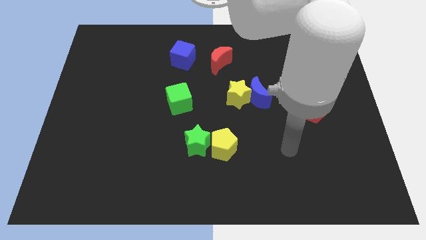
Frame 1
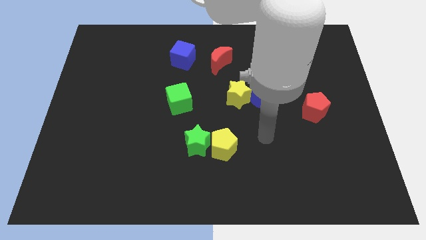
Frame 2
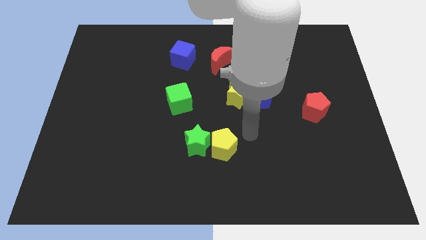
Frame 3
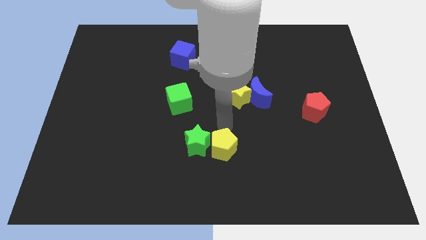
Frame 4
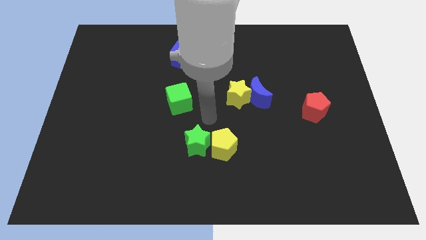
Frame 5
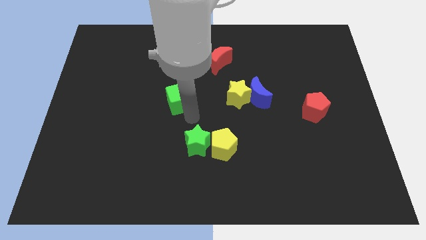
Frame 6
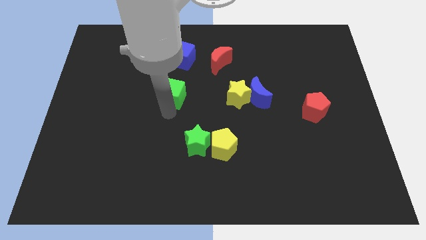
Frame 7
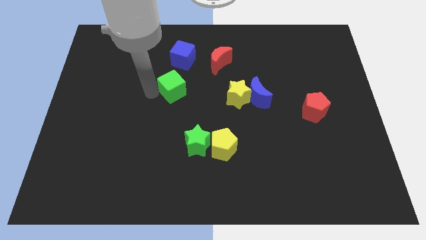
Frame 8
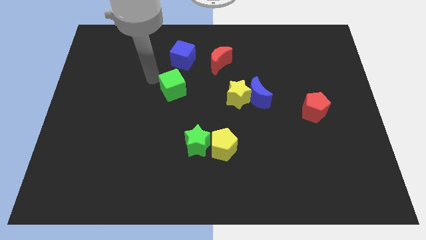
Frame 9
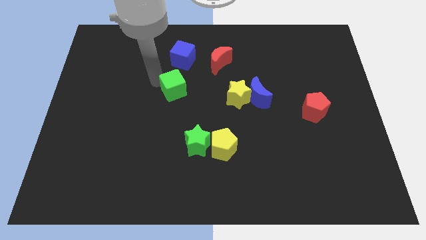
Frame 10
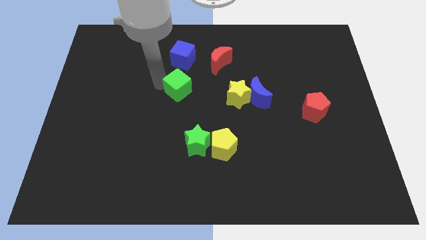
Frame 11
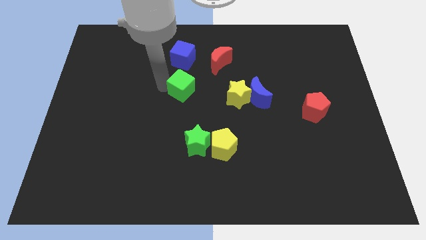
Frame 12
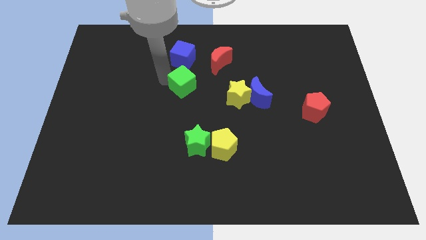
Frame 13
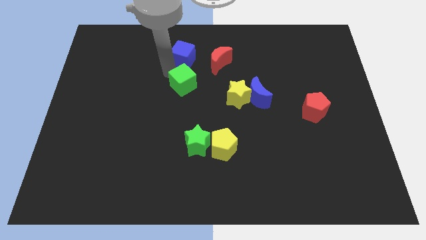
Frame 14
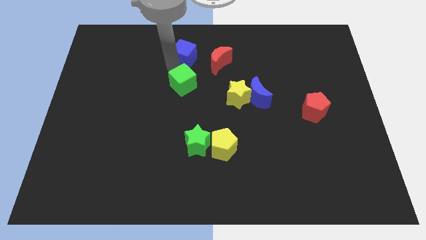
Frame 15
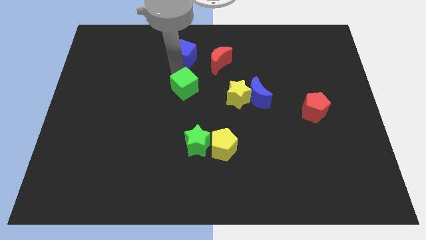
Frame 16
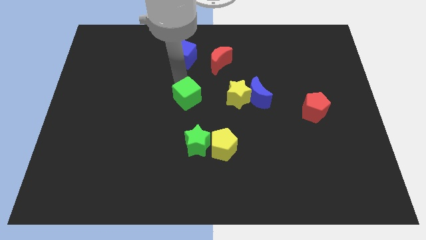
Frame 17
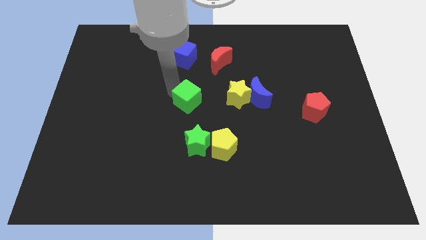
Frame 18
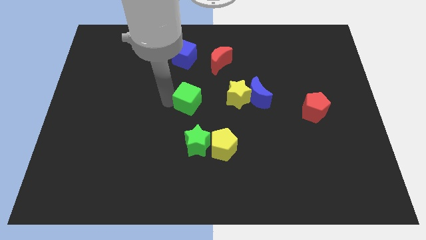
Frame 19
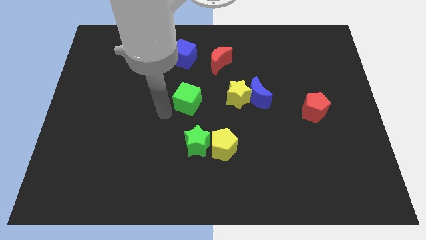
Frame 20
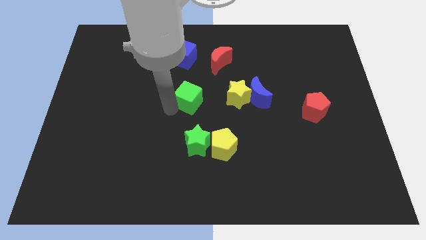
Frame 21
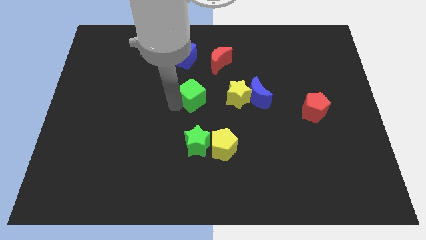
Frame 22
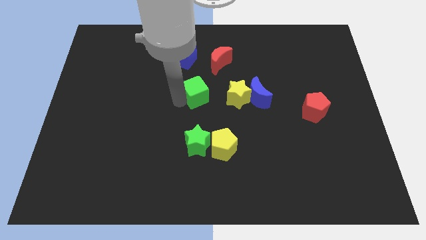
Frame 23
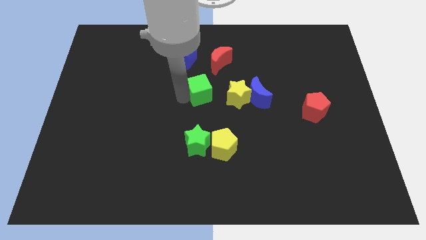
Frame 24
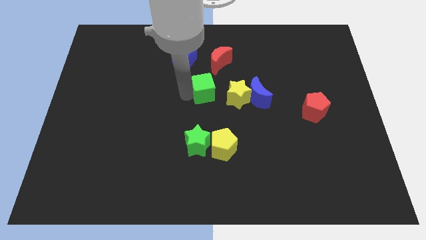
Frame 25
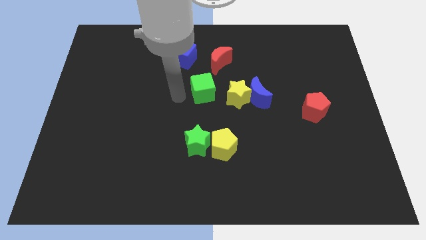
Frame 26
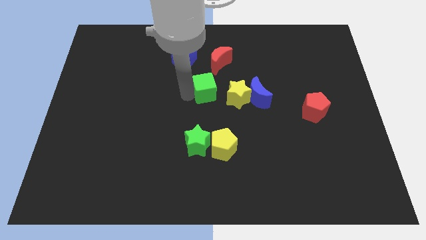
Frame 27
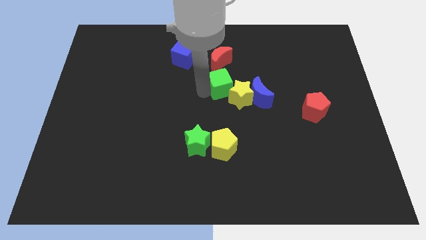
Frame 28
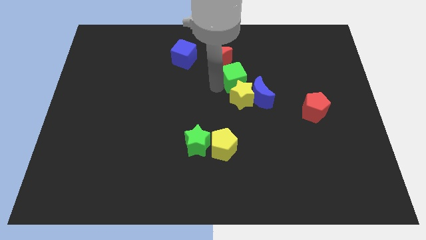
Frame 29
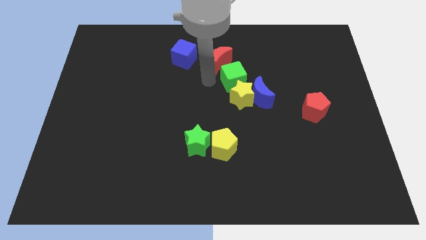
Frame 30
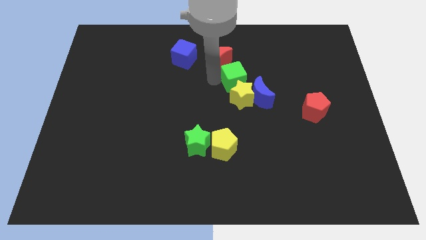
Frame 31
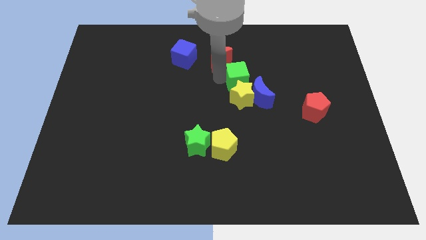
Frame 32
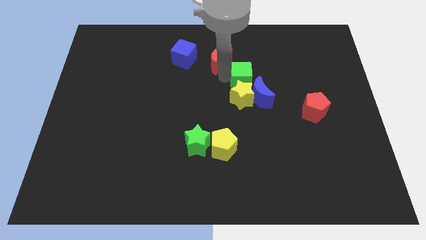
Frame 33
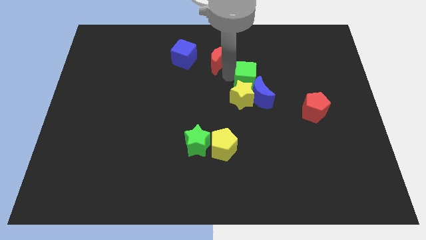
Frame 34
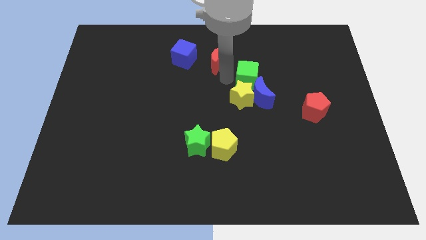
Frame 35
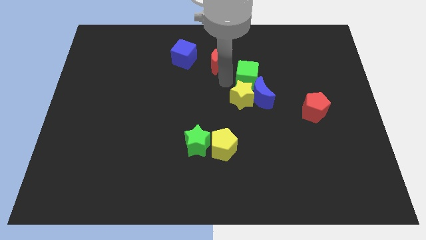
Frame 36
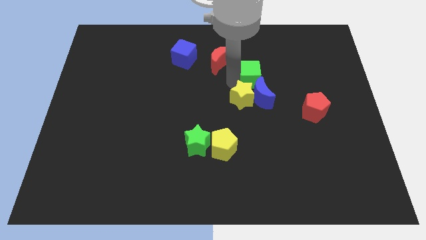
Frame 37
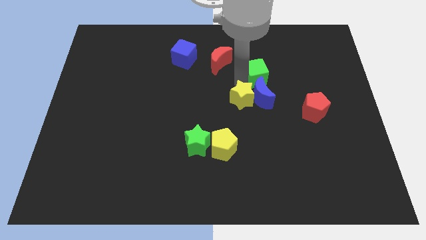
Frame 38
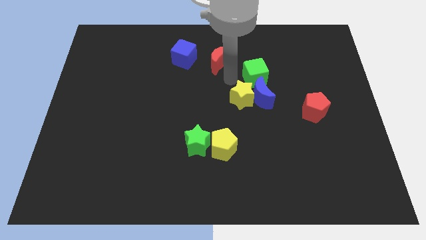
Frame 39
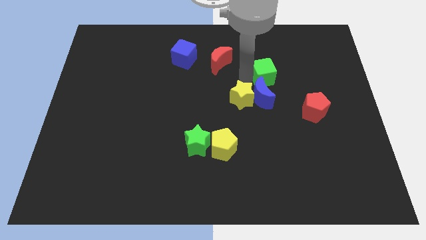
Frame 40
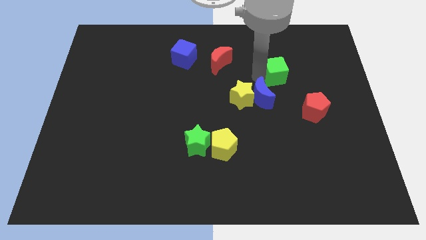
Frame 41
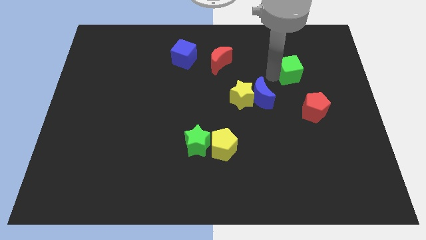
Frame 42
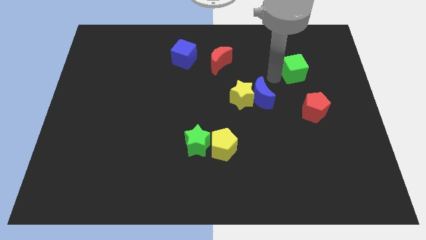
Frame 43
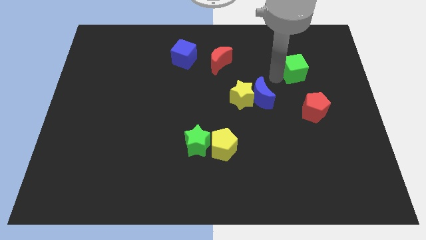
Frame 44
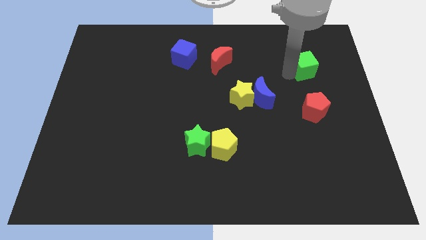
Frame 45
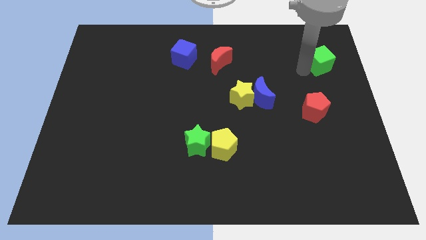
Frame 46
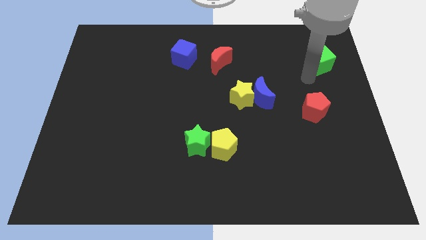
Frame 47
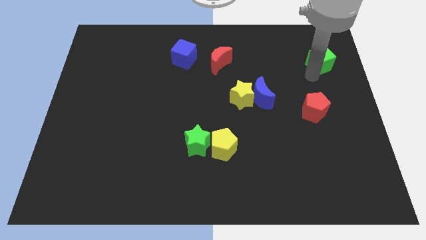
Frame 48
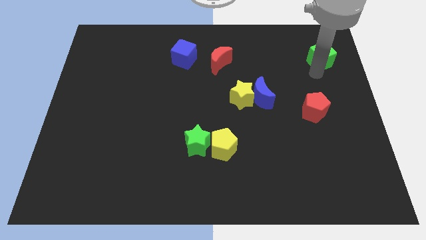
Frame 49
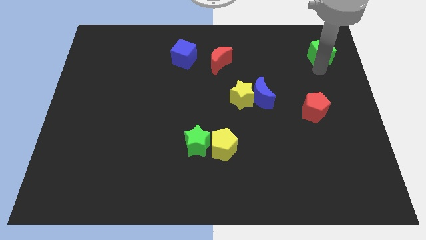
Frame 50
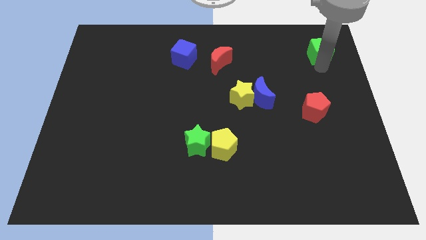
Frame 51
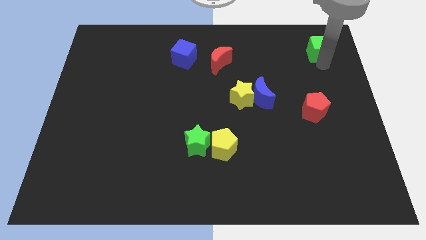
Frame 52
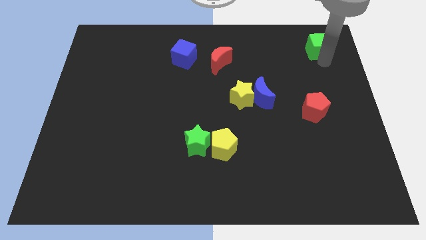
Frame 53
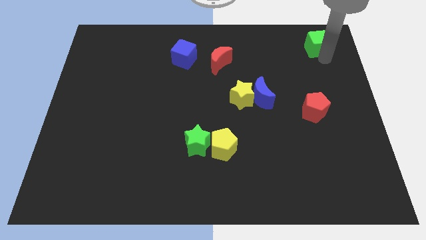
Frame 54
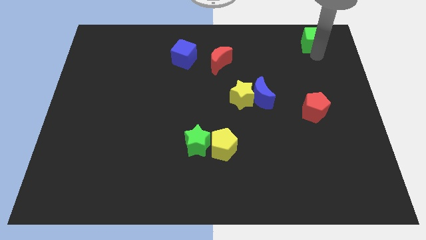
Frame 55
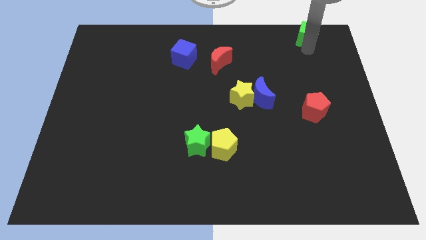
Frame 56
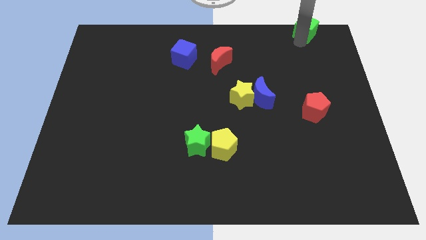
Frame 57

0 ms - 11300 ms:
slide the green cube to the top right of the board
